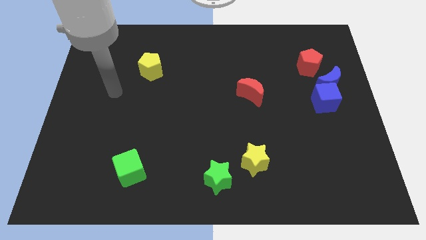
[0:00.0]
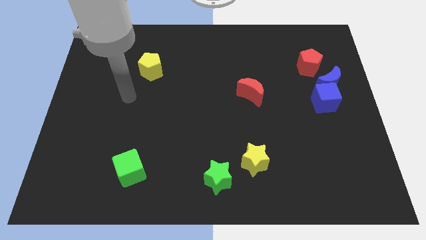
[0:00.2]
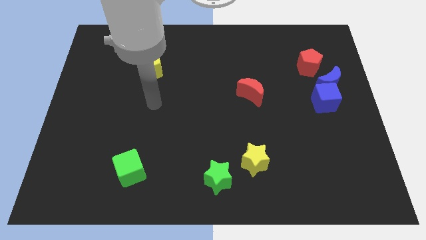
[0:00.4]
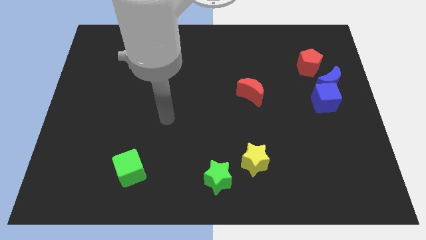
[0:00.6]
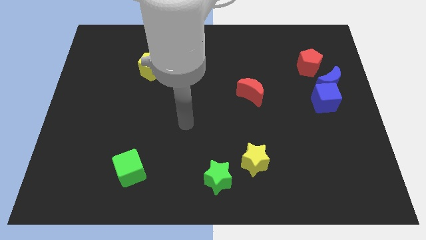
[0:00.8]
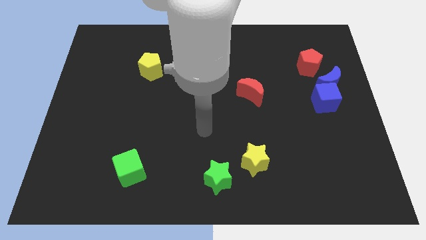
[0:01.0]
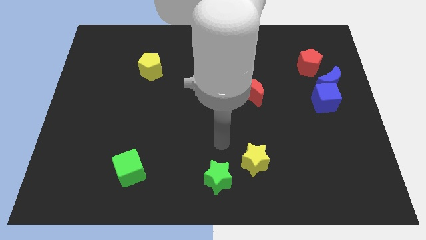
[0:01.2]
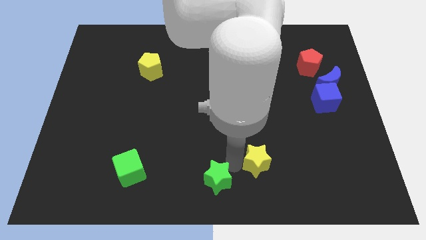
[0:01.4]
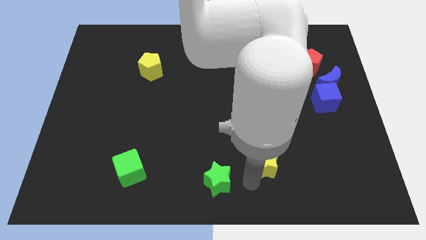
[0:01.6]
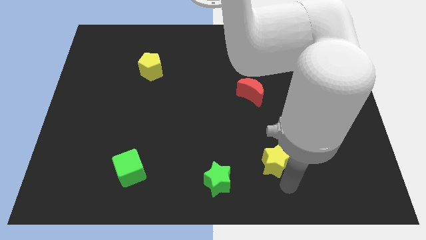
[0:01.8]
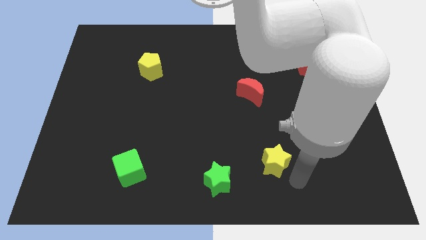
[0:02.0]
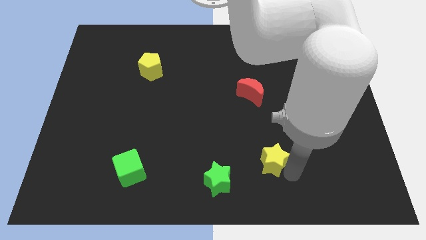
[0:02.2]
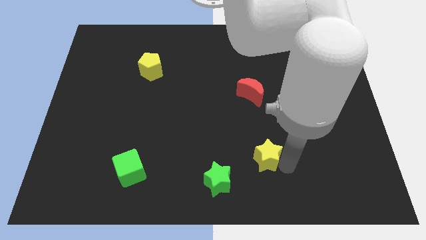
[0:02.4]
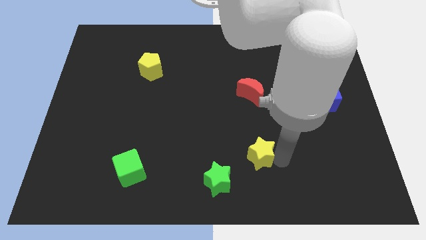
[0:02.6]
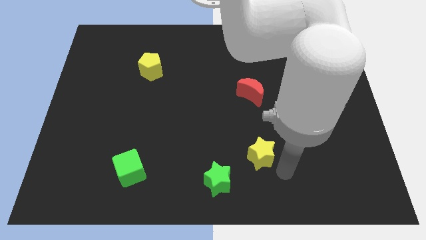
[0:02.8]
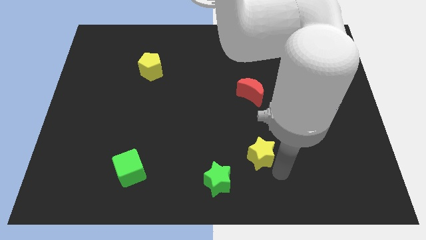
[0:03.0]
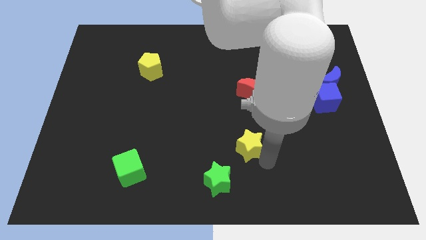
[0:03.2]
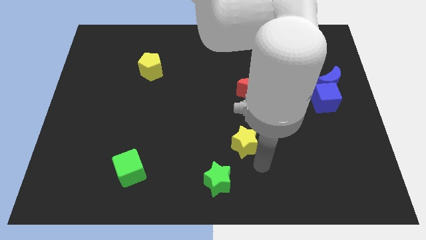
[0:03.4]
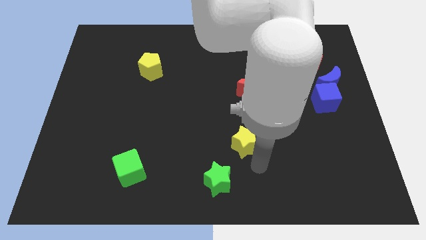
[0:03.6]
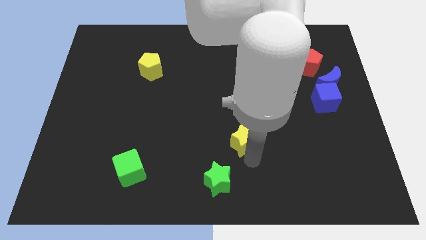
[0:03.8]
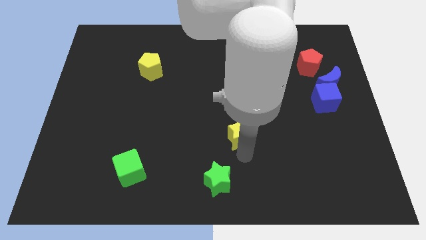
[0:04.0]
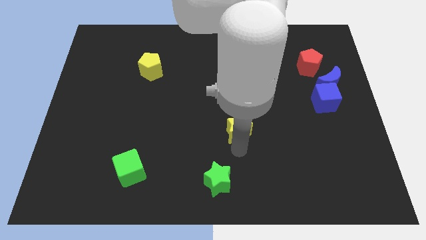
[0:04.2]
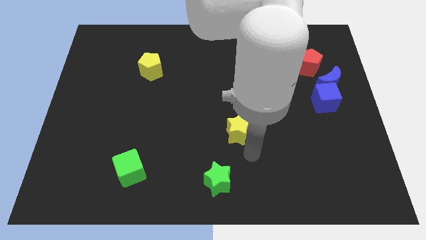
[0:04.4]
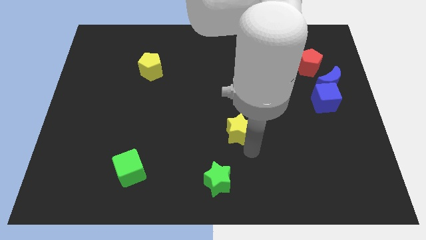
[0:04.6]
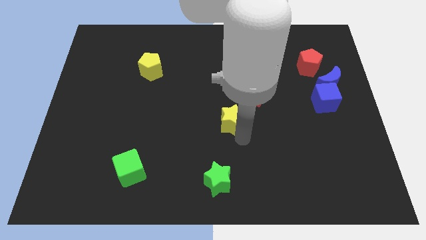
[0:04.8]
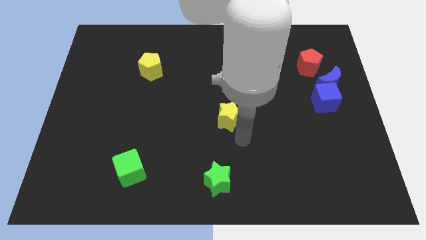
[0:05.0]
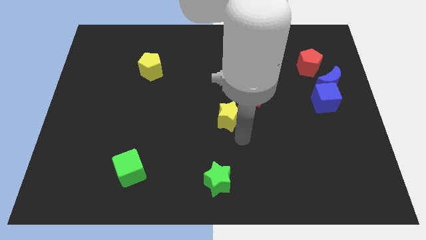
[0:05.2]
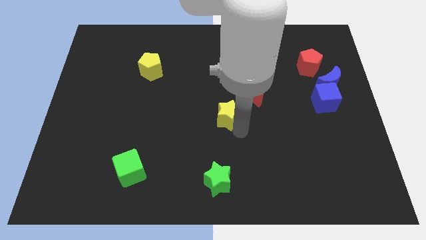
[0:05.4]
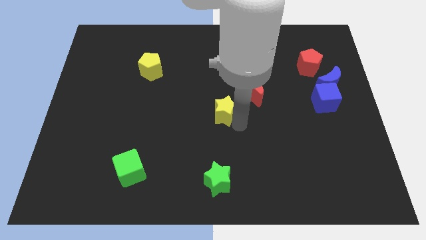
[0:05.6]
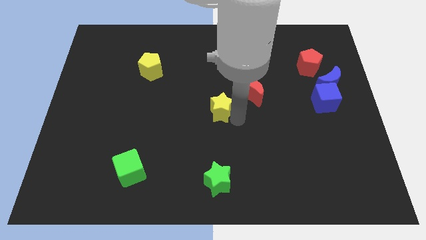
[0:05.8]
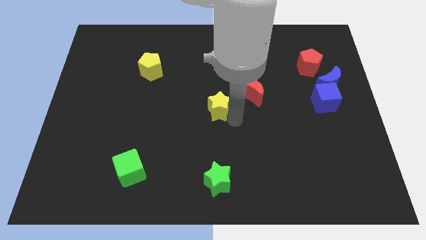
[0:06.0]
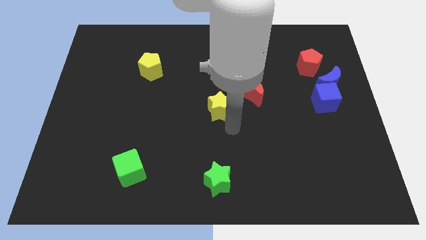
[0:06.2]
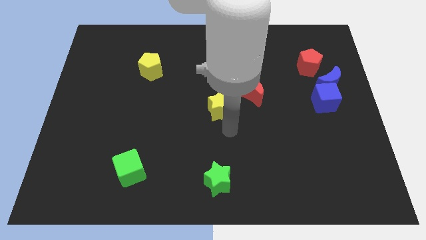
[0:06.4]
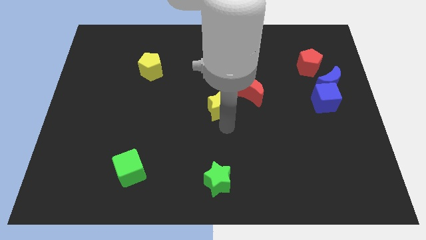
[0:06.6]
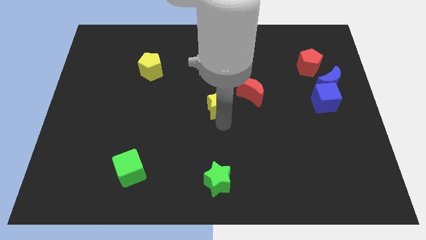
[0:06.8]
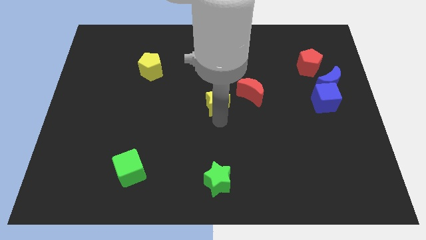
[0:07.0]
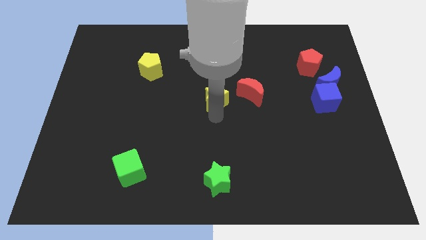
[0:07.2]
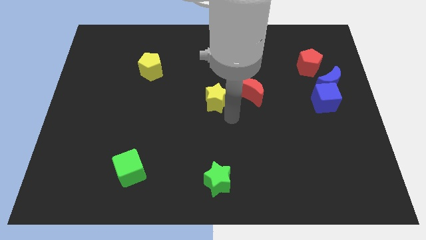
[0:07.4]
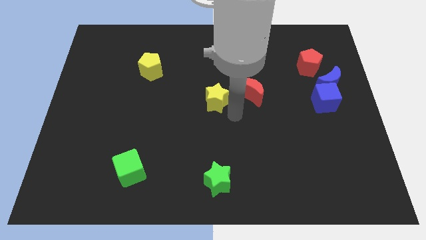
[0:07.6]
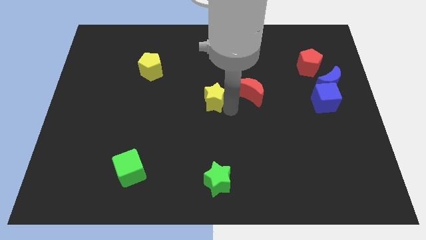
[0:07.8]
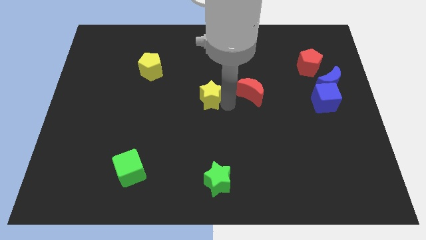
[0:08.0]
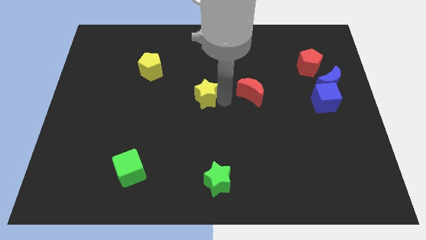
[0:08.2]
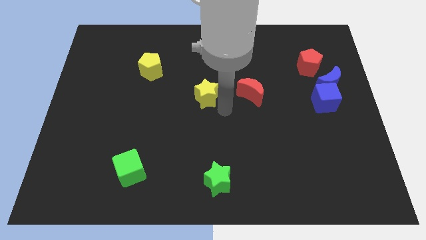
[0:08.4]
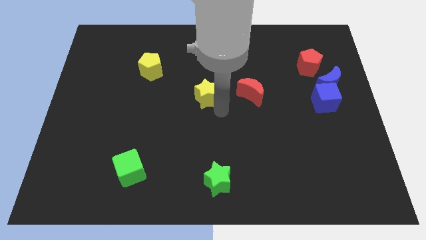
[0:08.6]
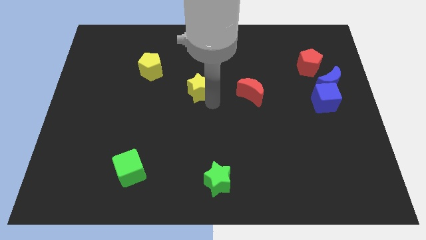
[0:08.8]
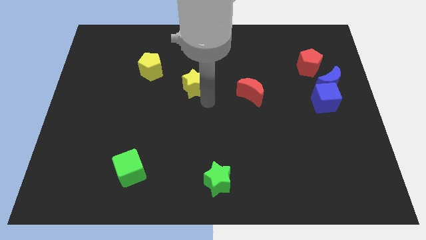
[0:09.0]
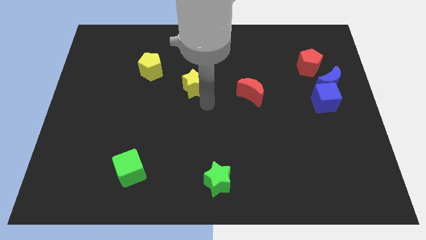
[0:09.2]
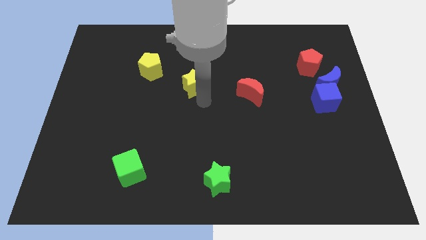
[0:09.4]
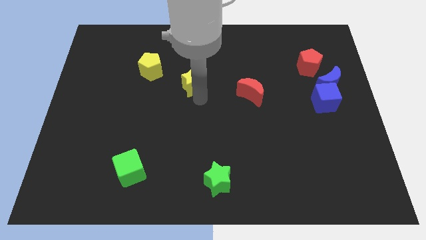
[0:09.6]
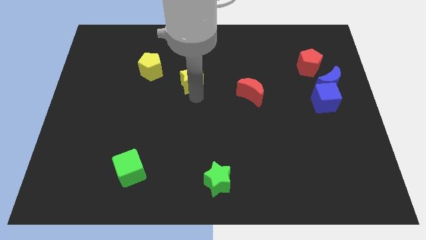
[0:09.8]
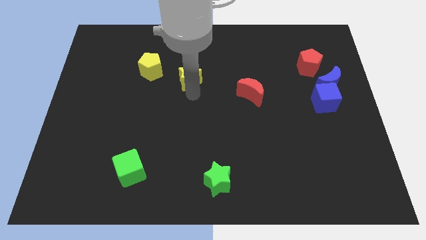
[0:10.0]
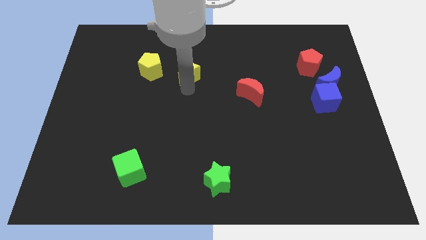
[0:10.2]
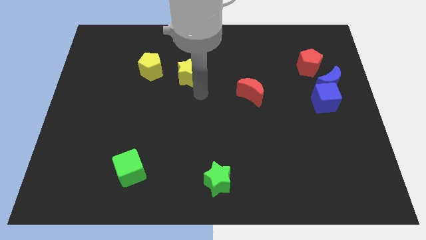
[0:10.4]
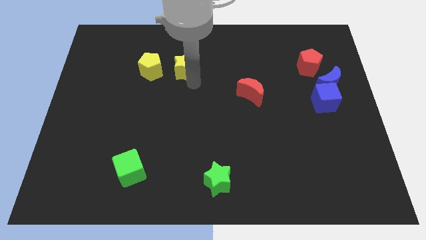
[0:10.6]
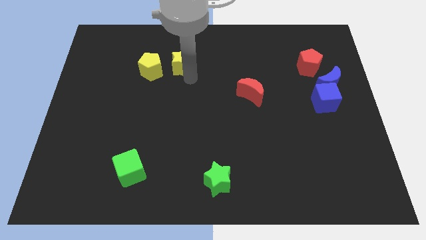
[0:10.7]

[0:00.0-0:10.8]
push the yellow star to the top right side of the yellow pentagon

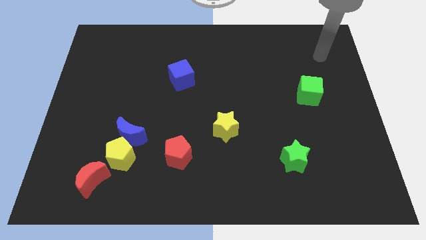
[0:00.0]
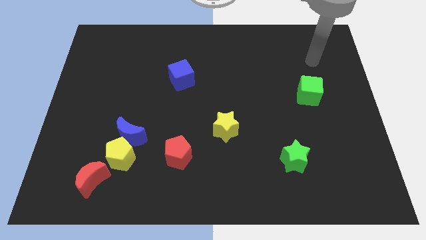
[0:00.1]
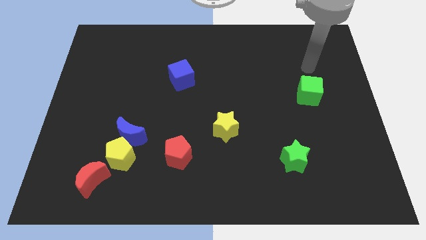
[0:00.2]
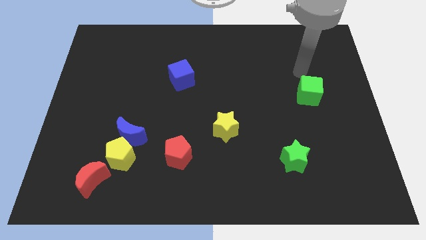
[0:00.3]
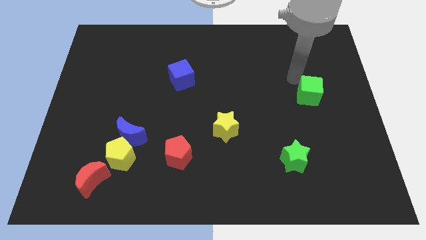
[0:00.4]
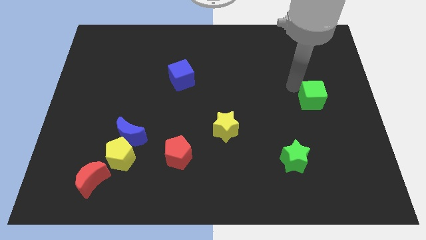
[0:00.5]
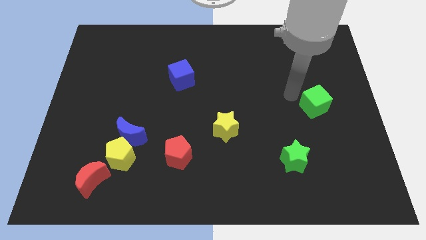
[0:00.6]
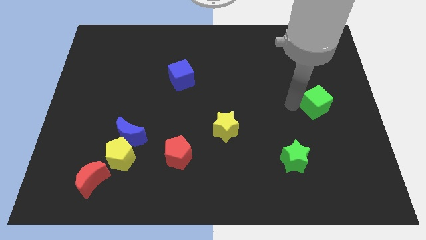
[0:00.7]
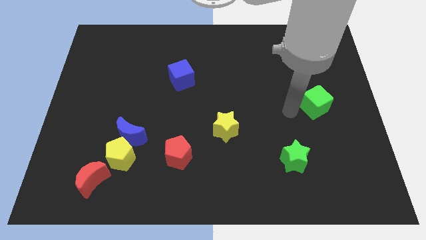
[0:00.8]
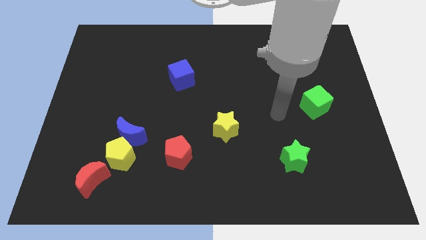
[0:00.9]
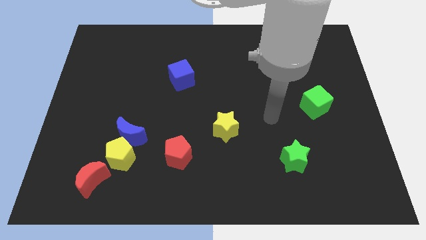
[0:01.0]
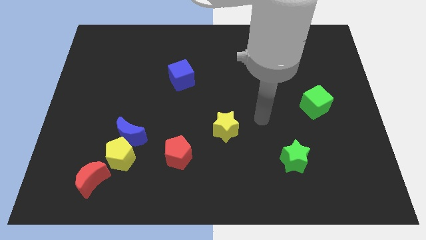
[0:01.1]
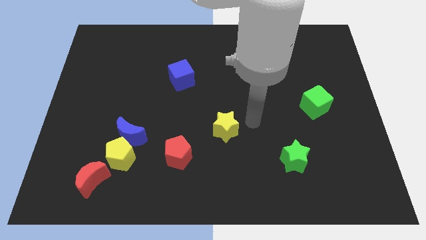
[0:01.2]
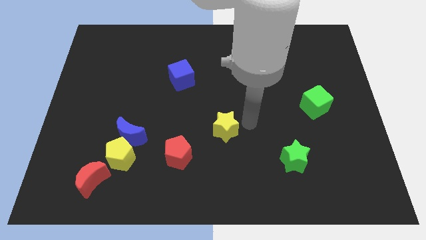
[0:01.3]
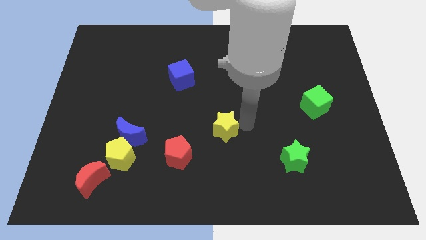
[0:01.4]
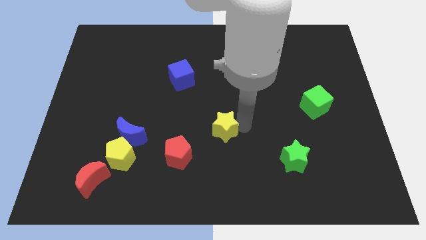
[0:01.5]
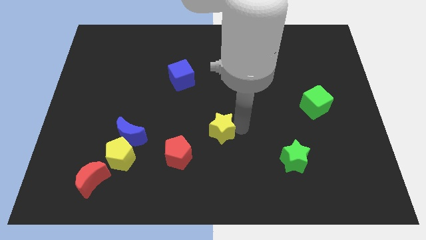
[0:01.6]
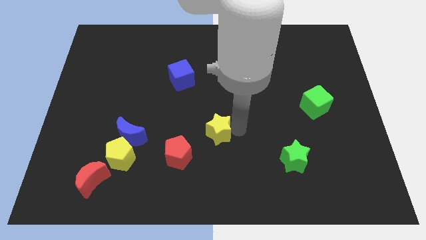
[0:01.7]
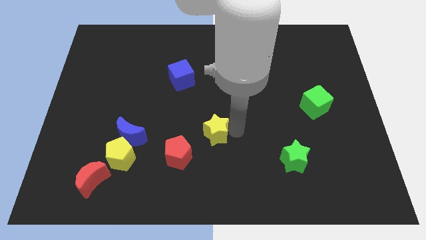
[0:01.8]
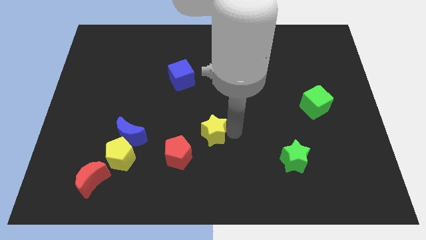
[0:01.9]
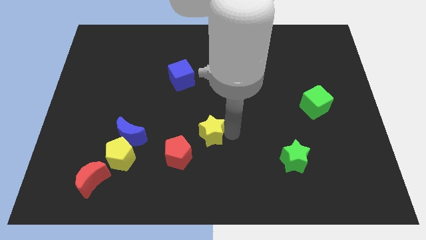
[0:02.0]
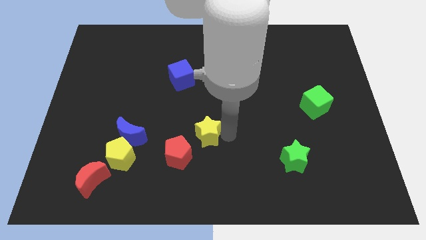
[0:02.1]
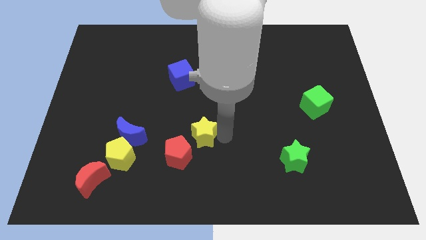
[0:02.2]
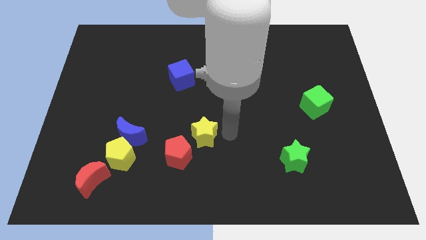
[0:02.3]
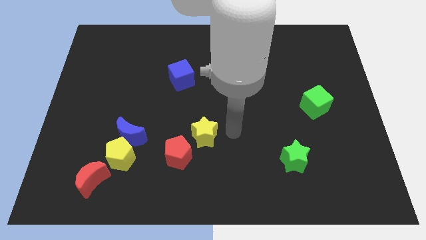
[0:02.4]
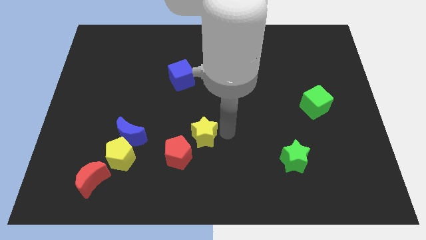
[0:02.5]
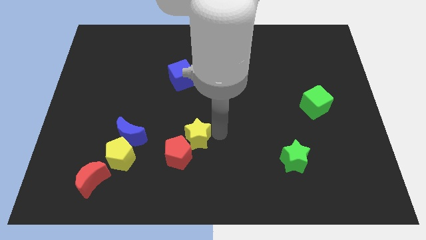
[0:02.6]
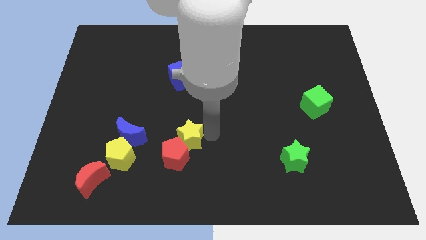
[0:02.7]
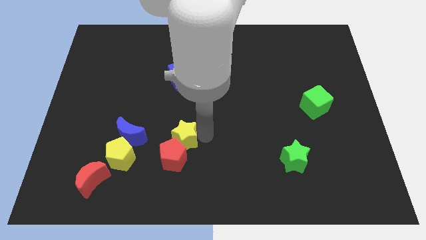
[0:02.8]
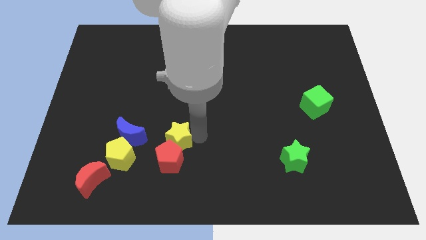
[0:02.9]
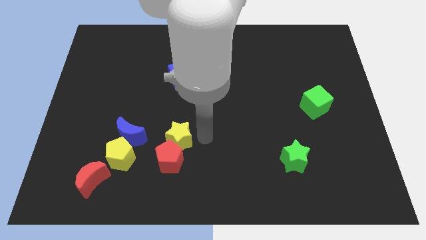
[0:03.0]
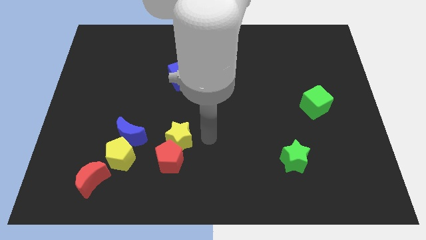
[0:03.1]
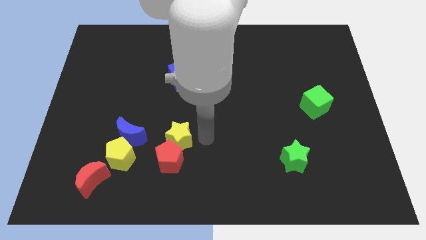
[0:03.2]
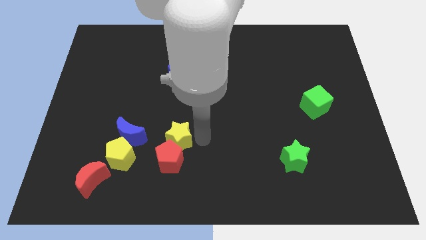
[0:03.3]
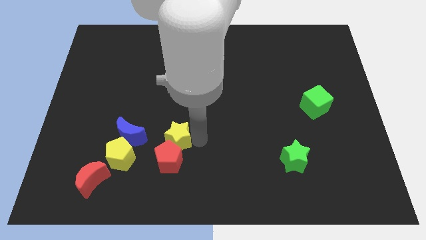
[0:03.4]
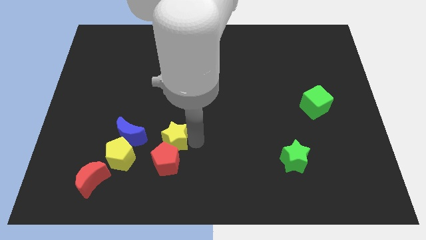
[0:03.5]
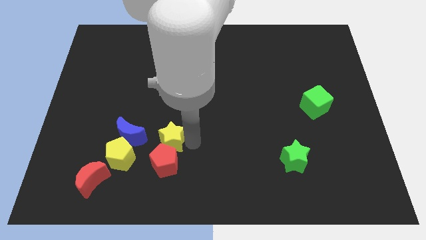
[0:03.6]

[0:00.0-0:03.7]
slide the yellow star diagonally up and to the left of the red pentagon
